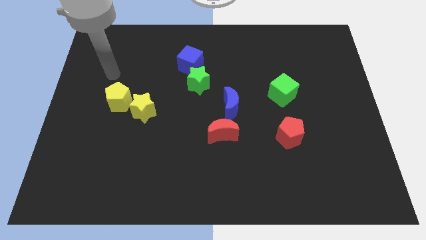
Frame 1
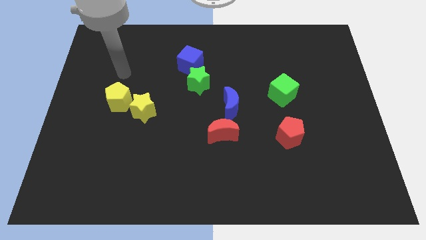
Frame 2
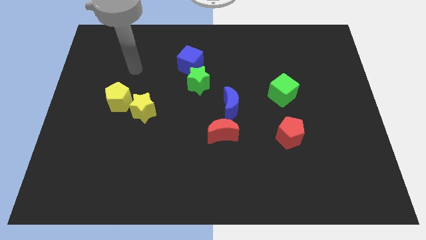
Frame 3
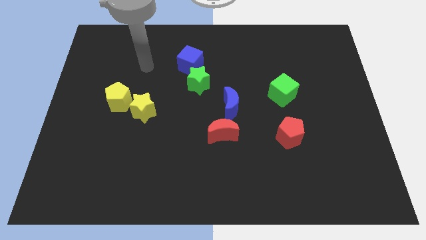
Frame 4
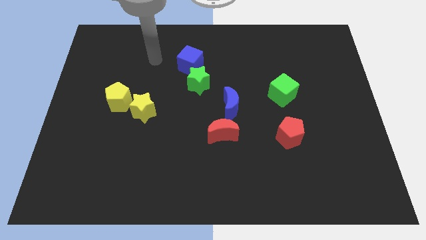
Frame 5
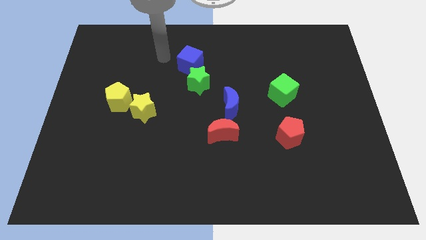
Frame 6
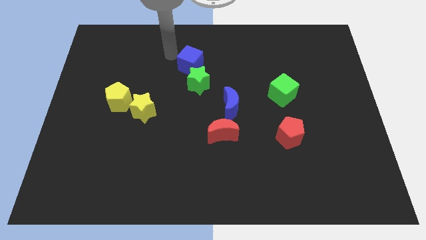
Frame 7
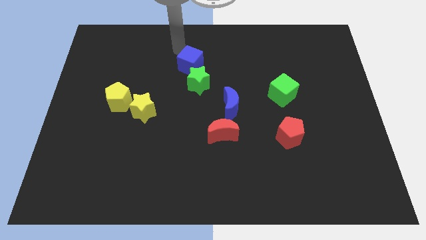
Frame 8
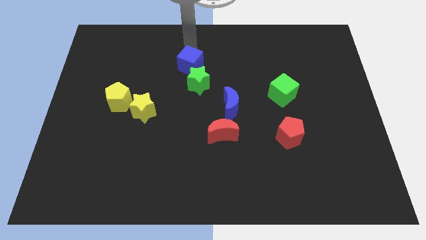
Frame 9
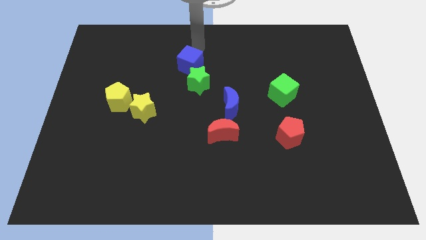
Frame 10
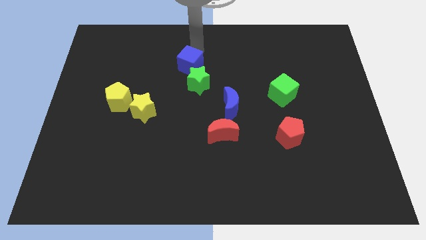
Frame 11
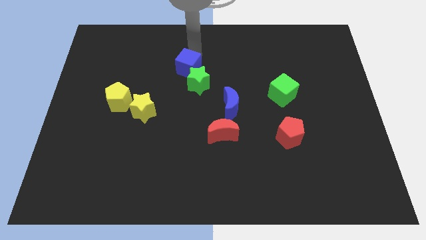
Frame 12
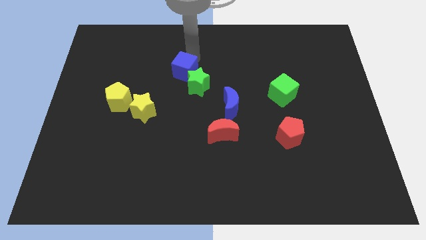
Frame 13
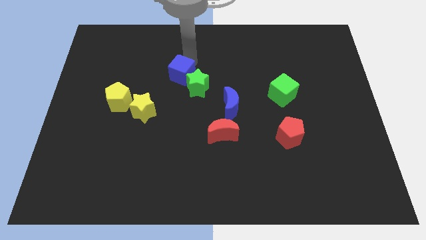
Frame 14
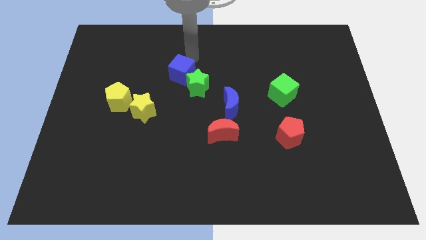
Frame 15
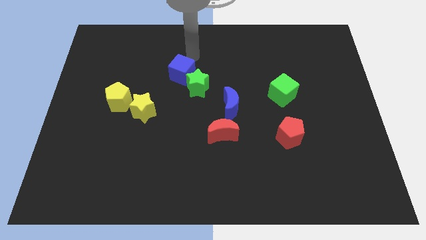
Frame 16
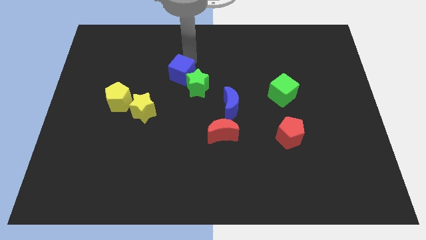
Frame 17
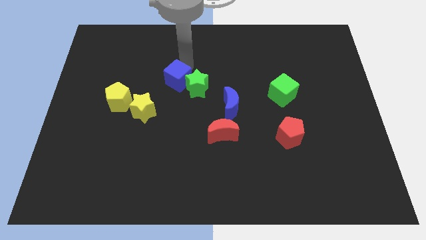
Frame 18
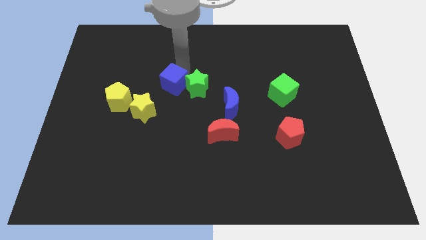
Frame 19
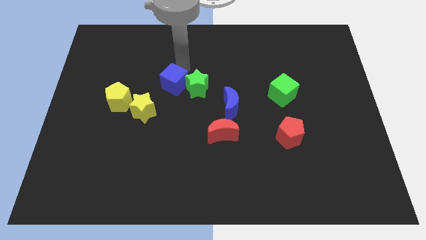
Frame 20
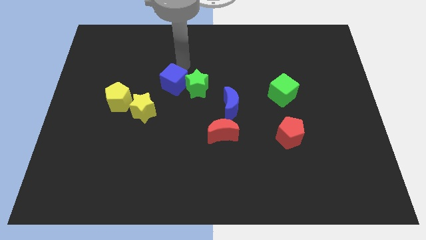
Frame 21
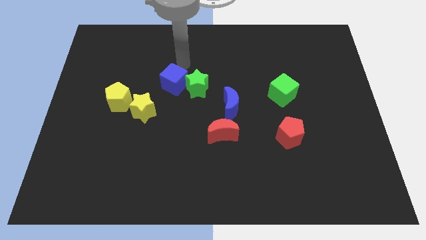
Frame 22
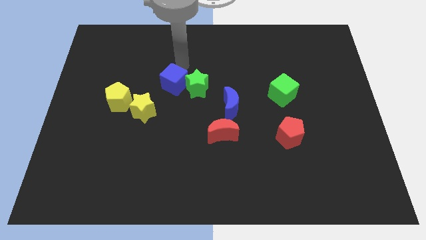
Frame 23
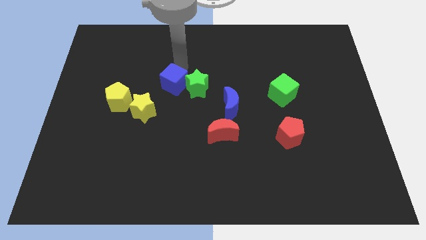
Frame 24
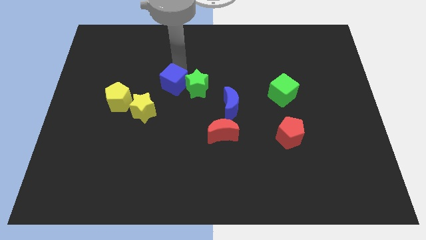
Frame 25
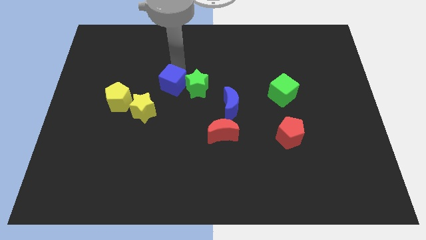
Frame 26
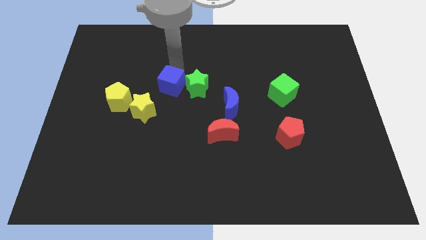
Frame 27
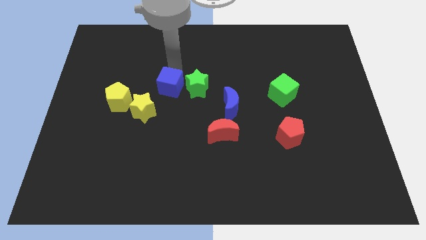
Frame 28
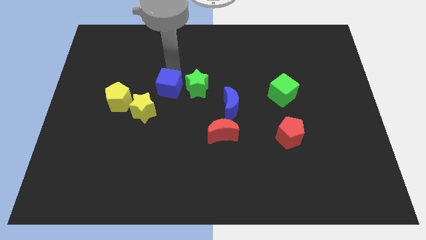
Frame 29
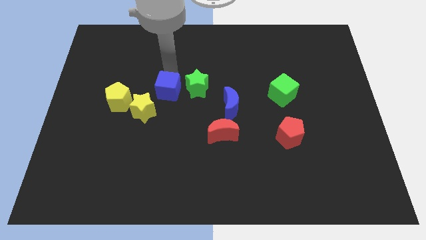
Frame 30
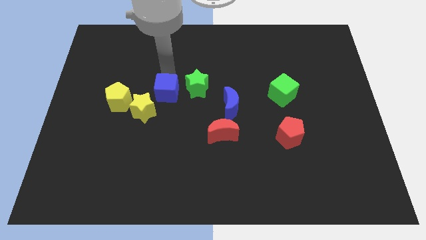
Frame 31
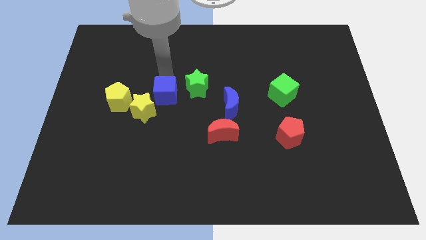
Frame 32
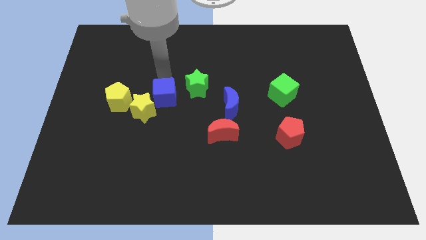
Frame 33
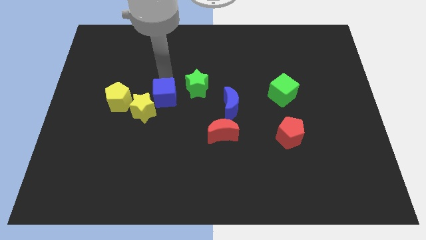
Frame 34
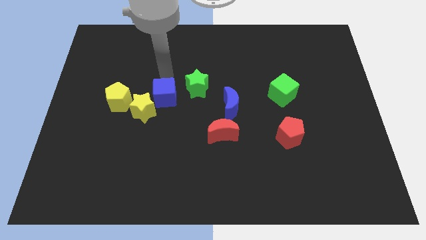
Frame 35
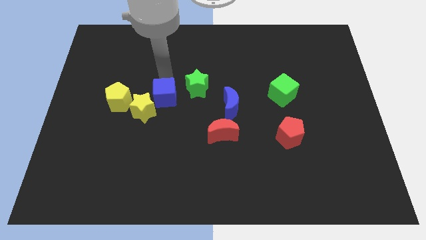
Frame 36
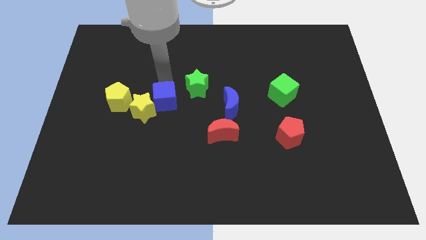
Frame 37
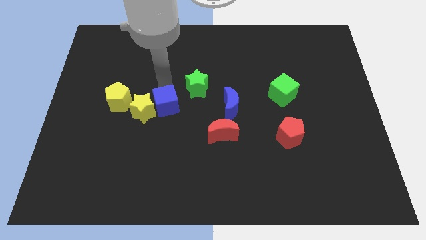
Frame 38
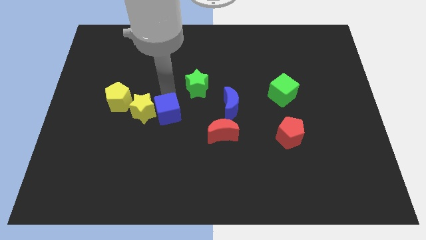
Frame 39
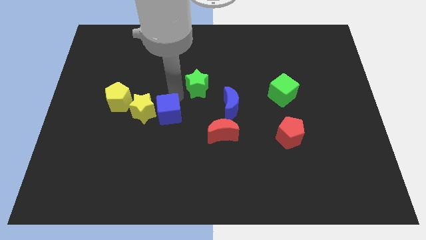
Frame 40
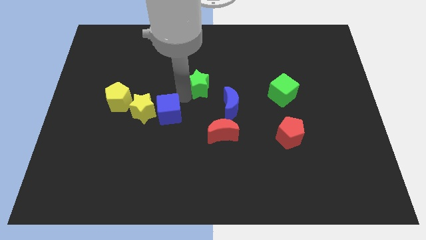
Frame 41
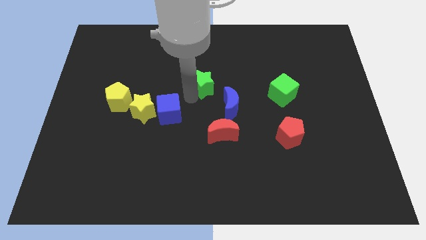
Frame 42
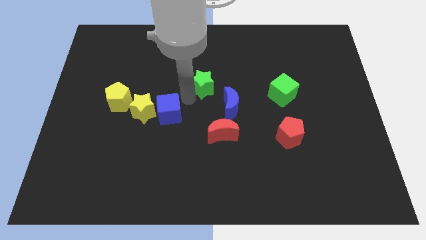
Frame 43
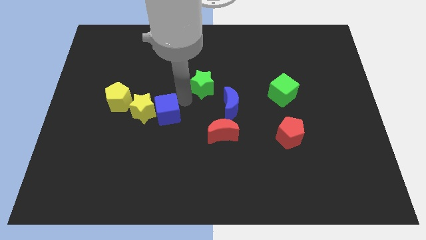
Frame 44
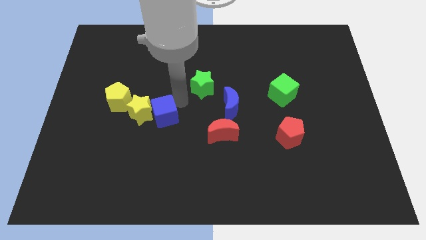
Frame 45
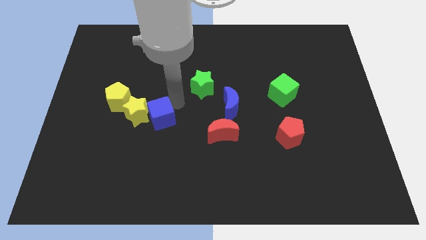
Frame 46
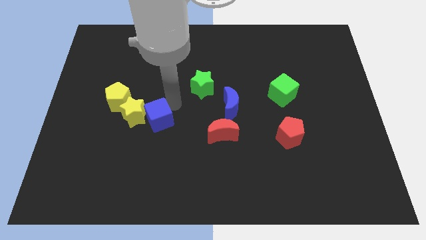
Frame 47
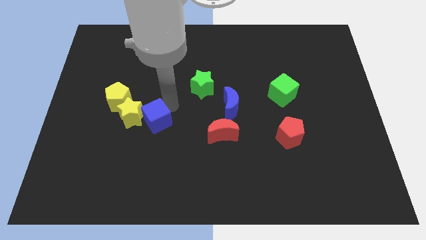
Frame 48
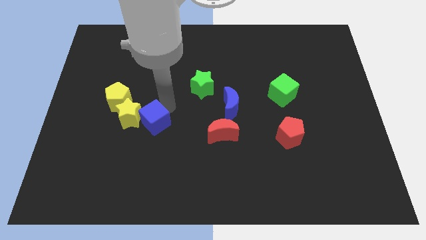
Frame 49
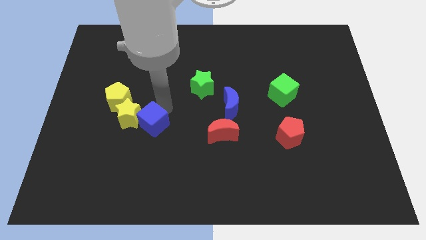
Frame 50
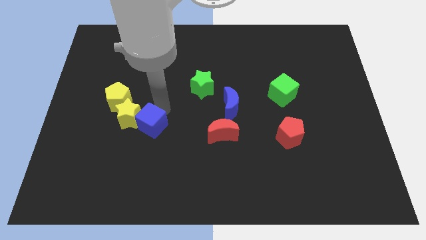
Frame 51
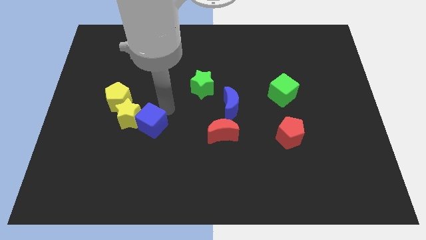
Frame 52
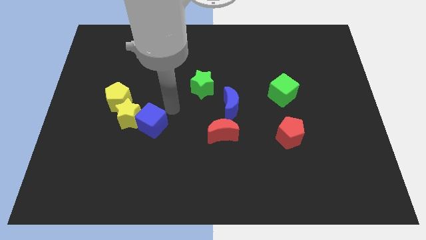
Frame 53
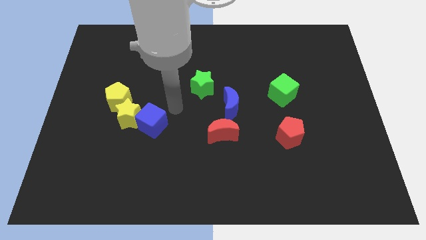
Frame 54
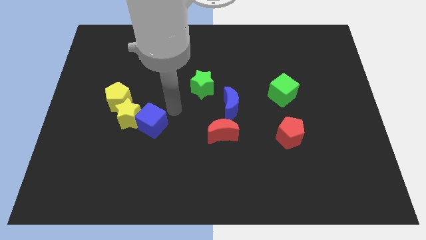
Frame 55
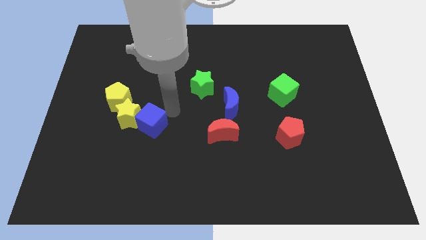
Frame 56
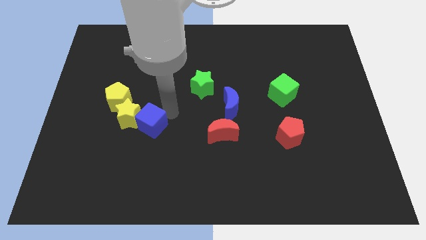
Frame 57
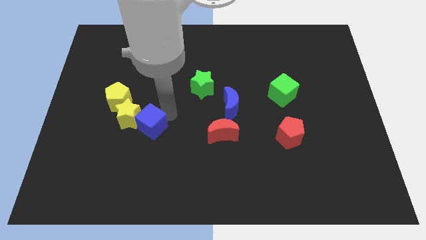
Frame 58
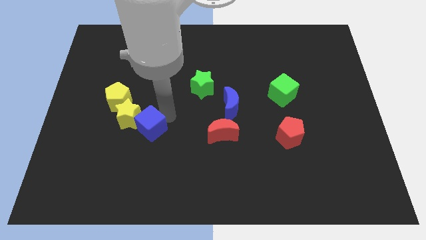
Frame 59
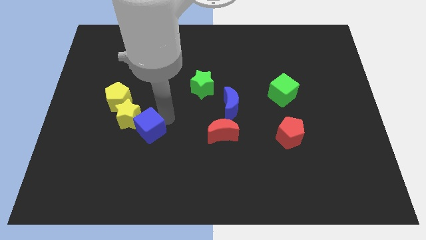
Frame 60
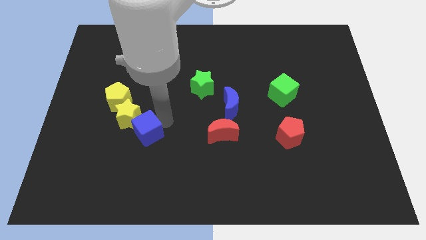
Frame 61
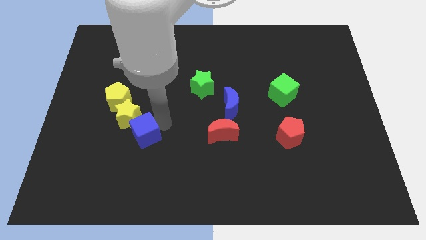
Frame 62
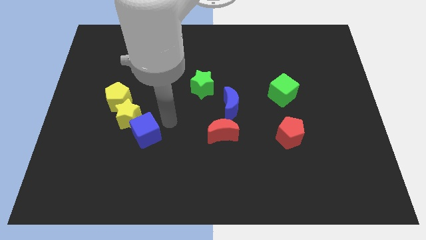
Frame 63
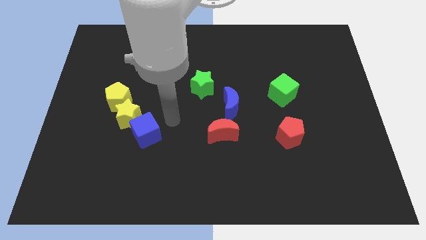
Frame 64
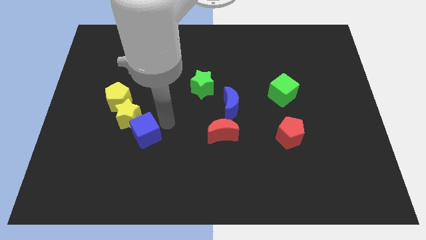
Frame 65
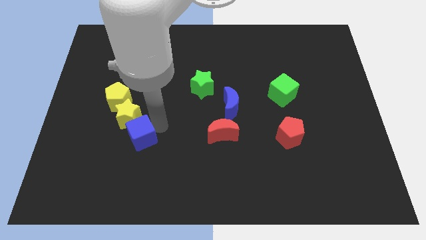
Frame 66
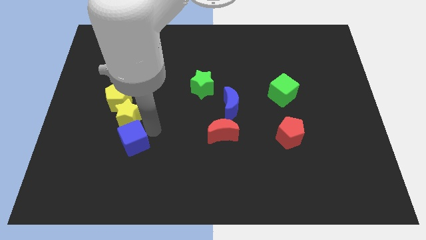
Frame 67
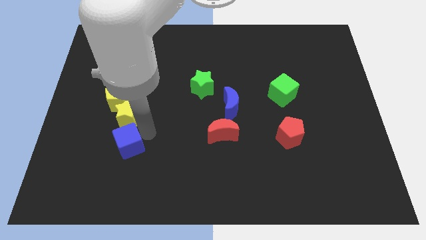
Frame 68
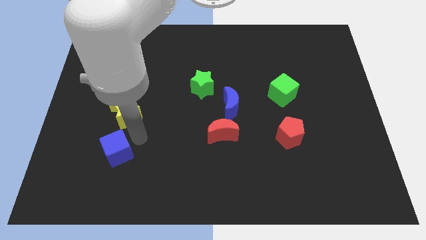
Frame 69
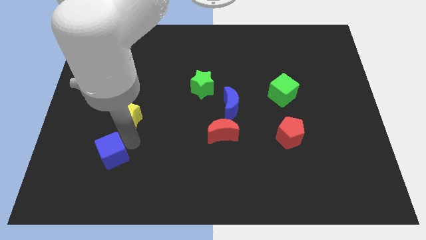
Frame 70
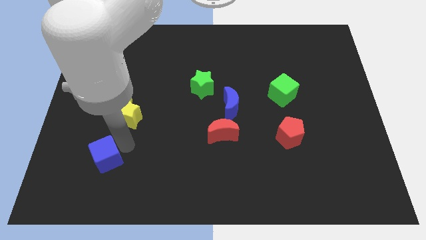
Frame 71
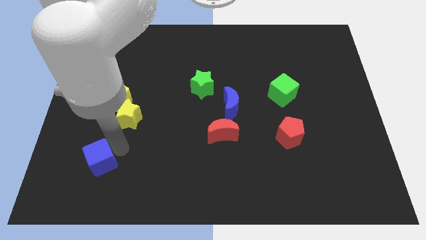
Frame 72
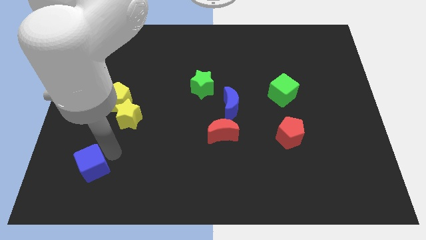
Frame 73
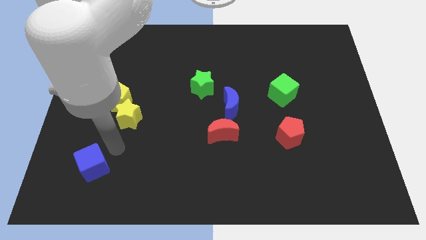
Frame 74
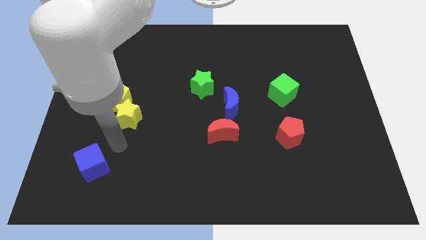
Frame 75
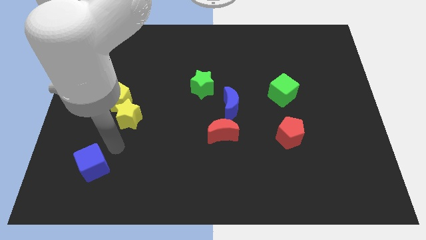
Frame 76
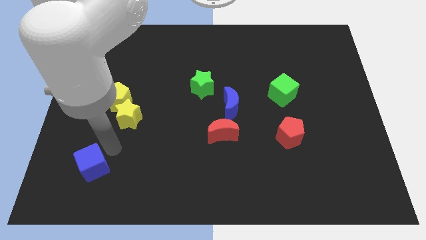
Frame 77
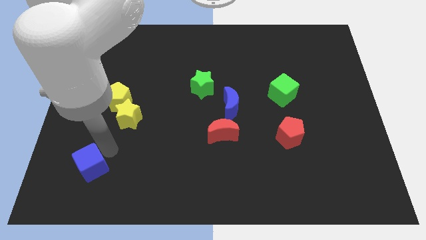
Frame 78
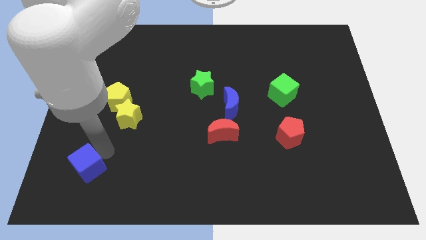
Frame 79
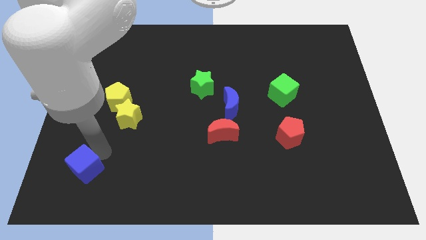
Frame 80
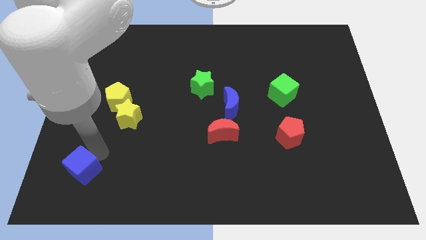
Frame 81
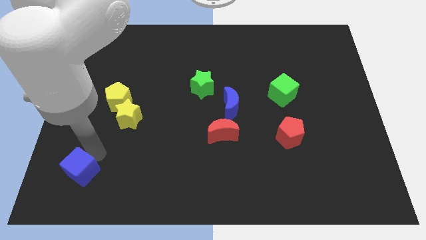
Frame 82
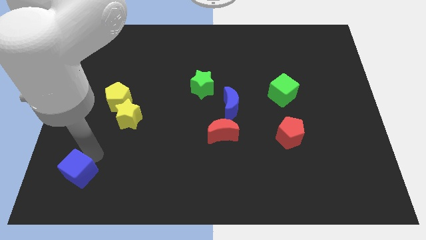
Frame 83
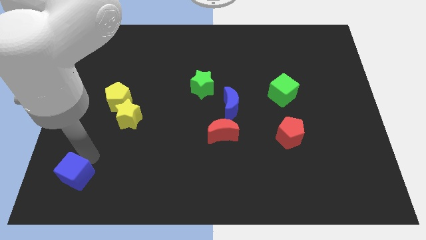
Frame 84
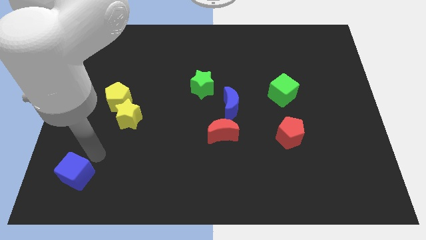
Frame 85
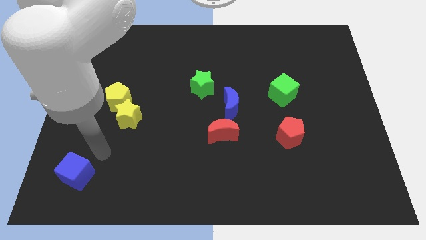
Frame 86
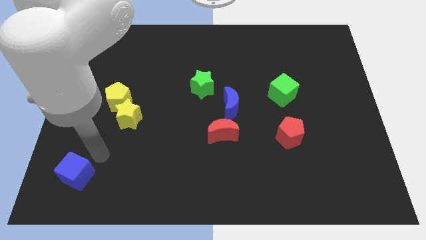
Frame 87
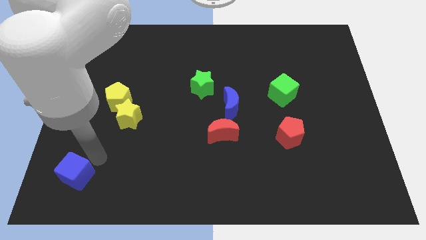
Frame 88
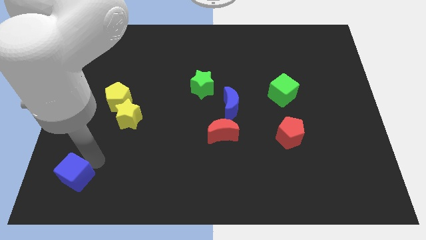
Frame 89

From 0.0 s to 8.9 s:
put the blue cube to the lower left corner
